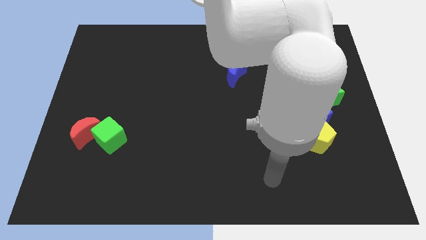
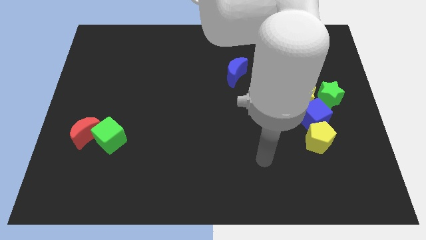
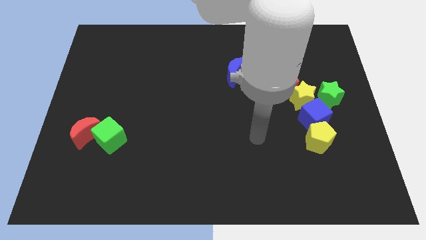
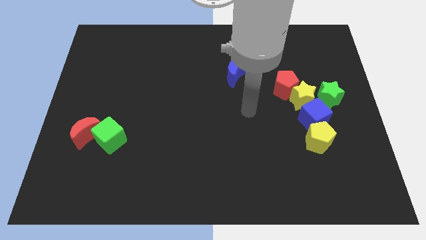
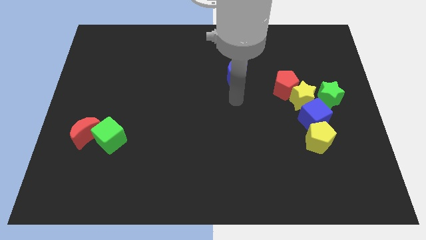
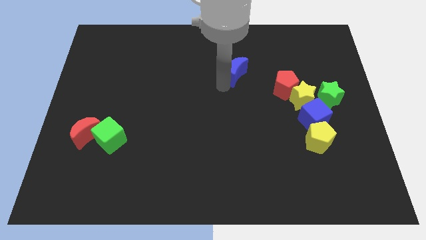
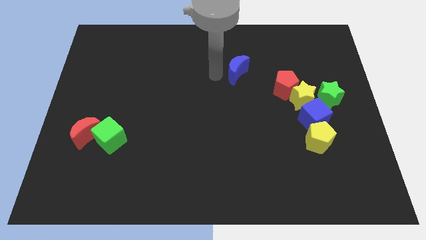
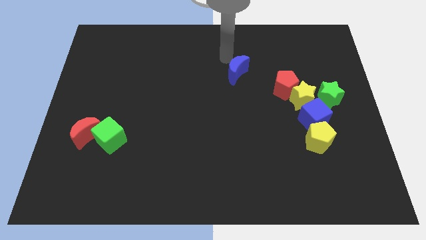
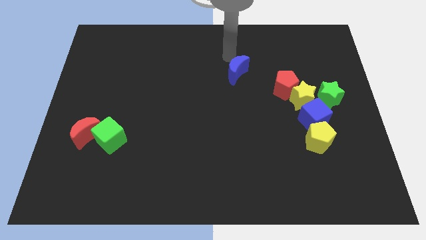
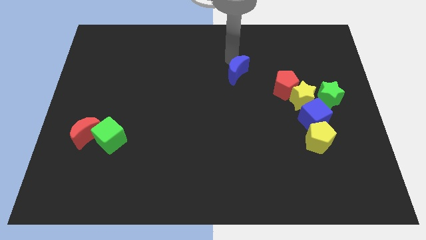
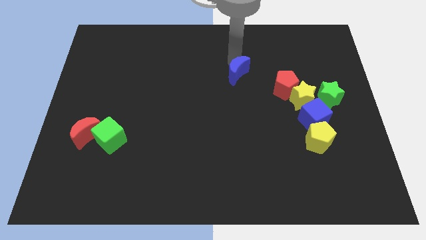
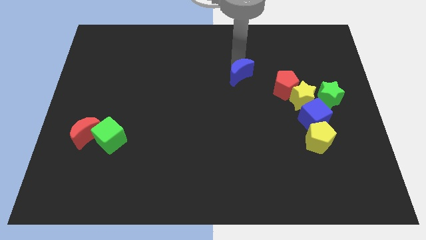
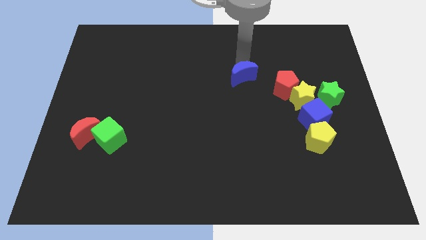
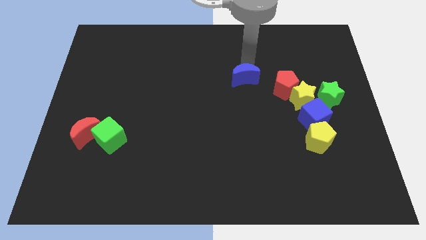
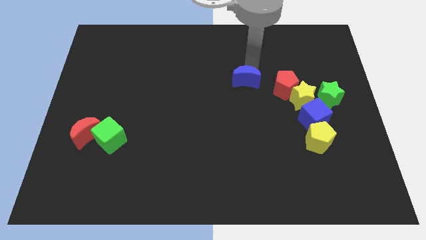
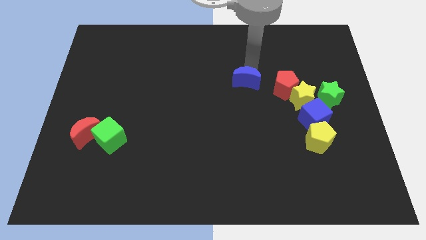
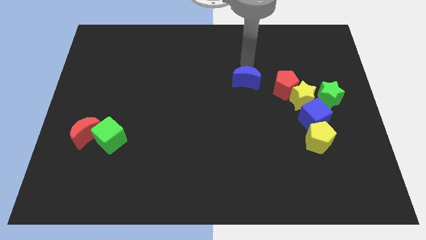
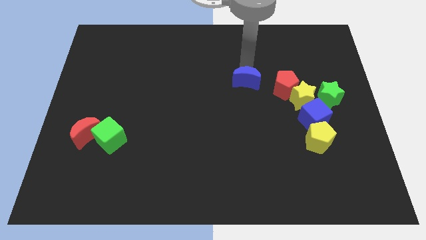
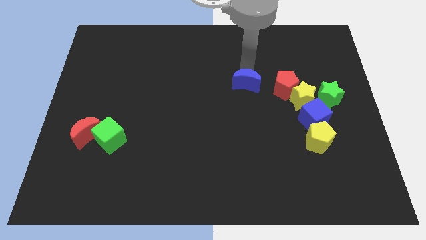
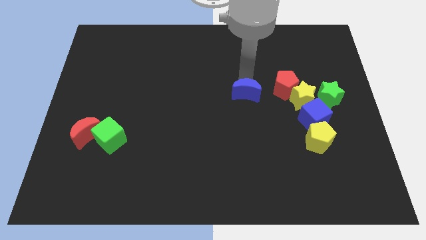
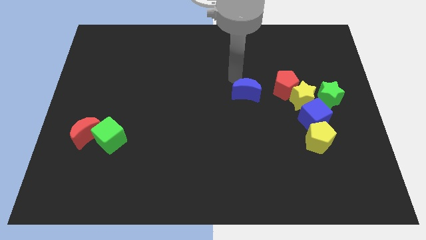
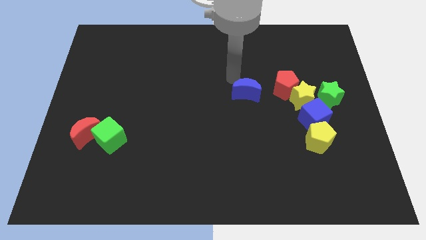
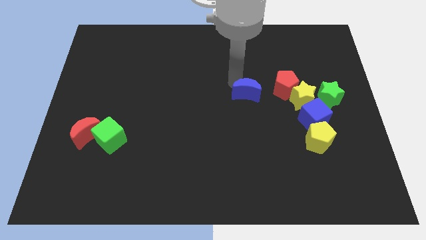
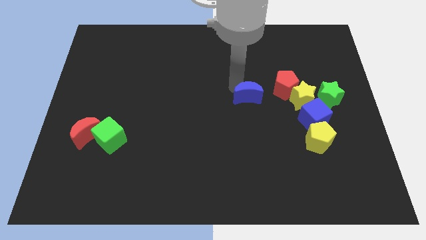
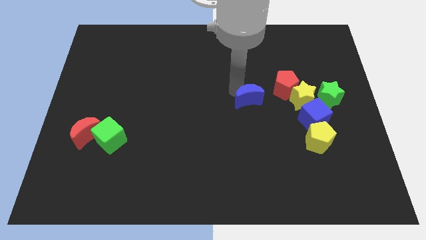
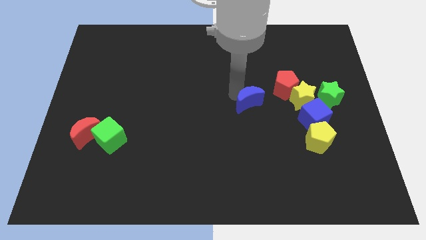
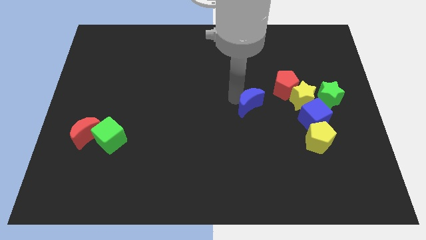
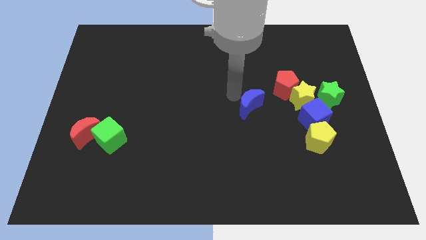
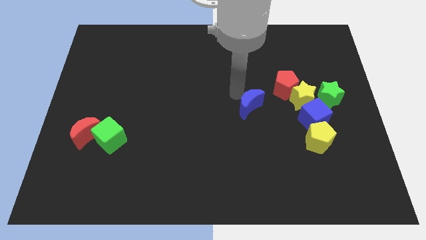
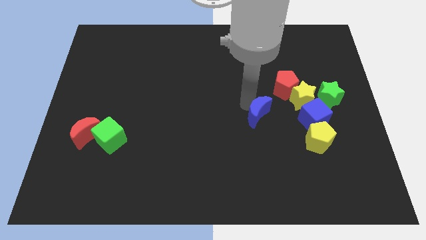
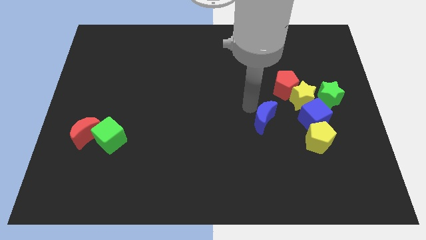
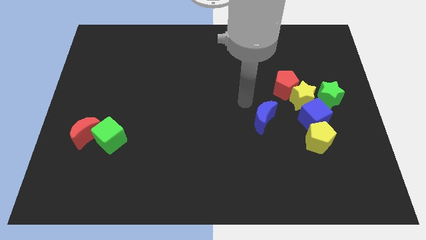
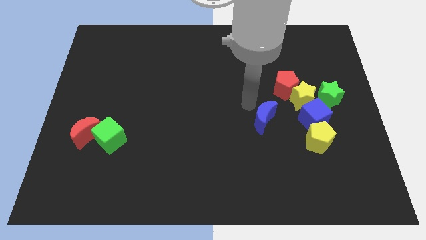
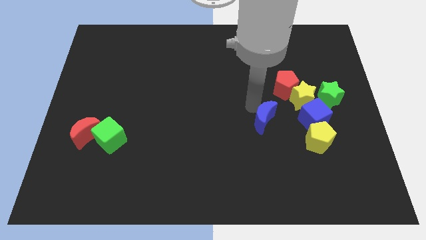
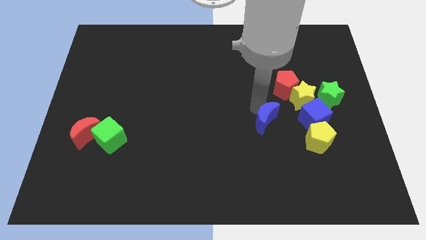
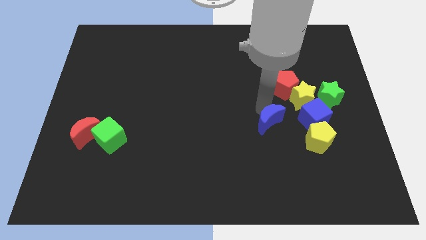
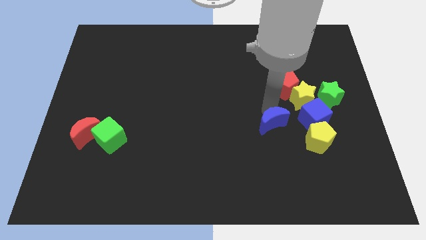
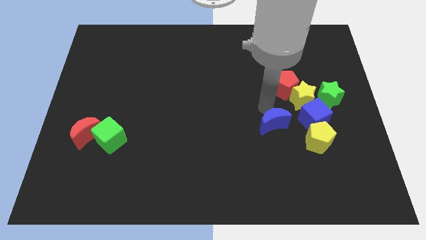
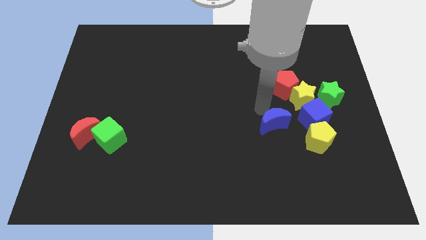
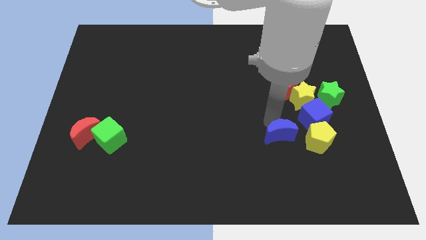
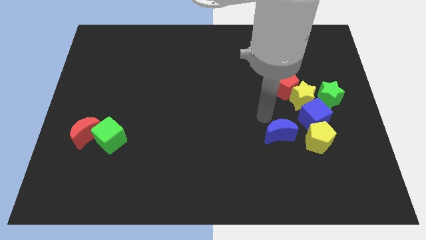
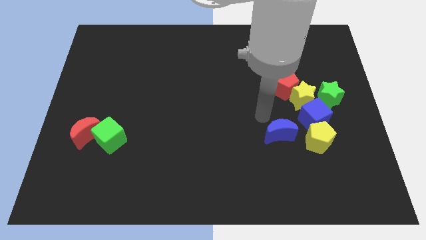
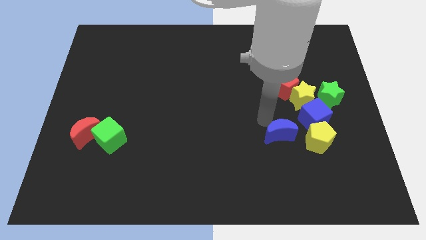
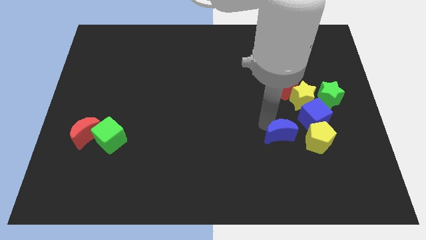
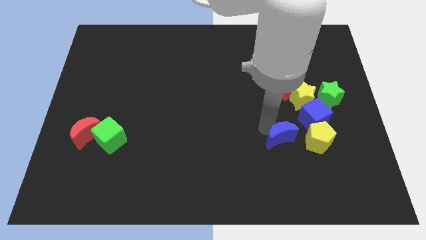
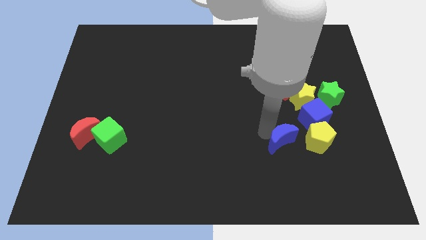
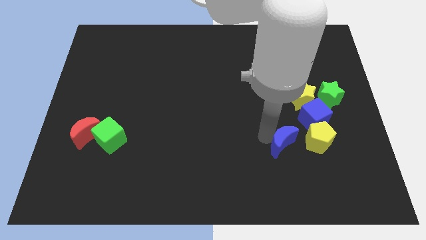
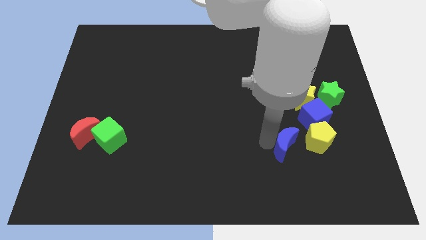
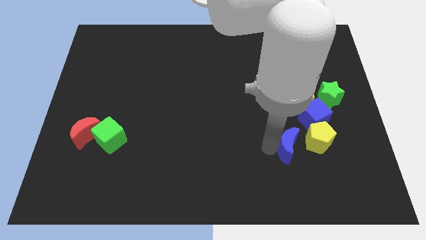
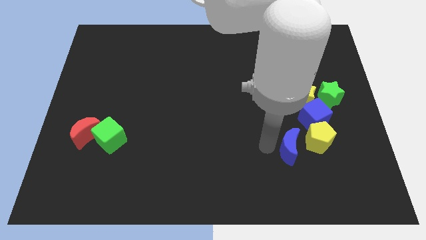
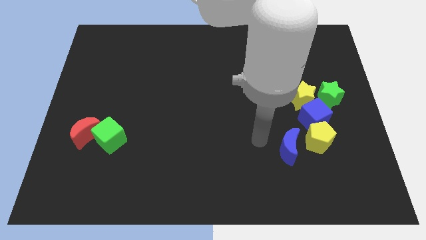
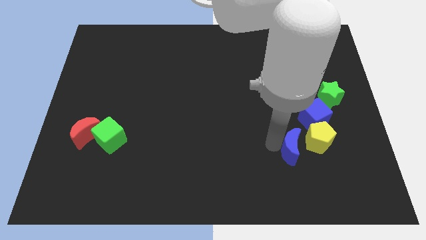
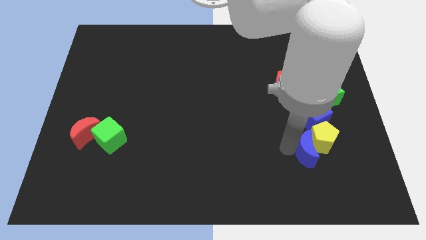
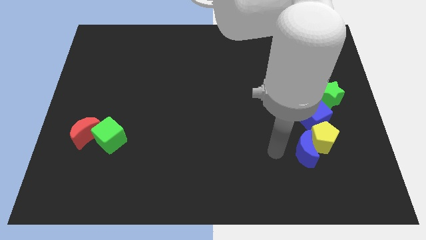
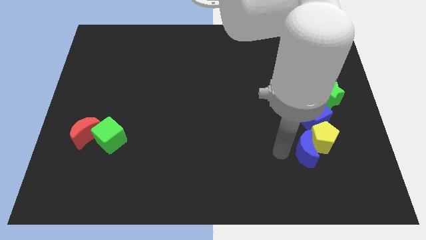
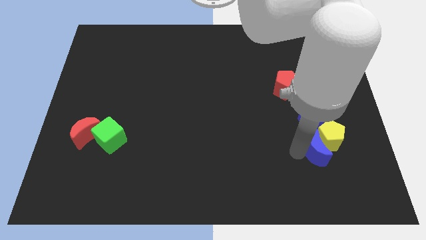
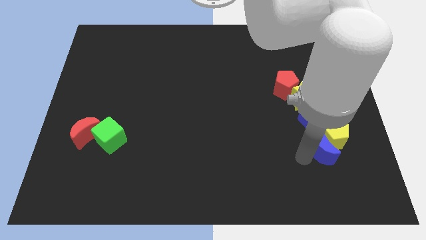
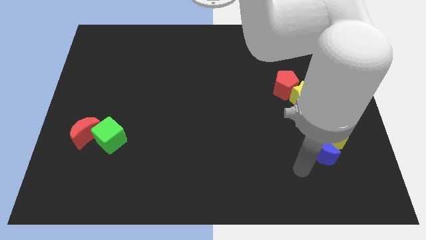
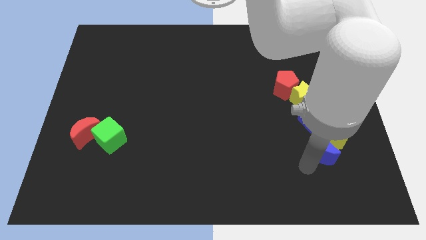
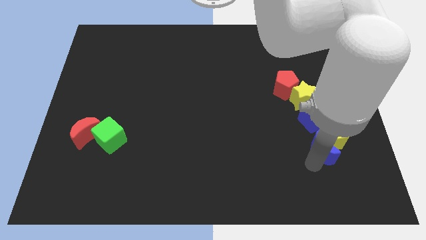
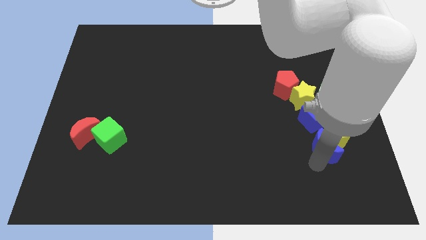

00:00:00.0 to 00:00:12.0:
slide the blue moon below the green star
